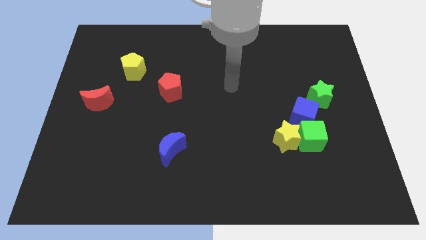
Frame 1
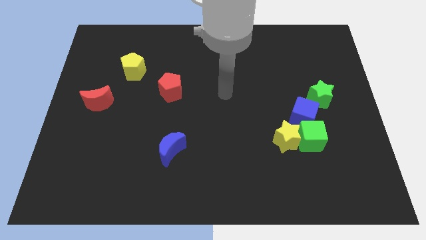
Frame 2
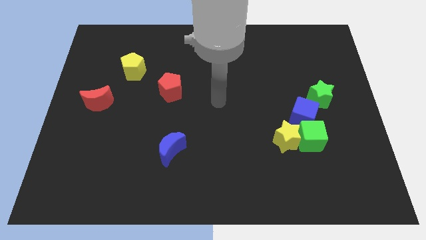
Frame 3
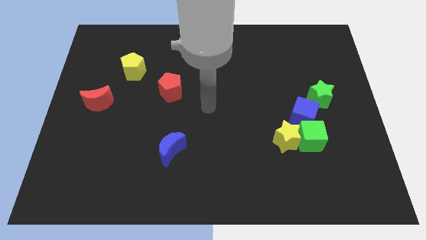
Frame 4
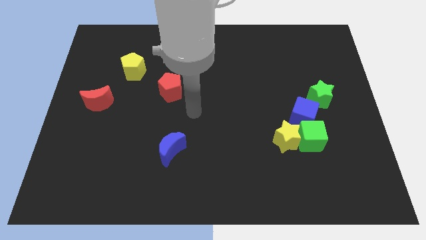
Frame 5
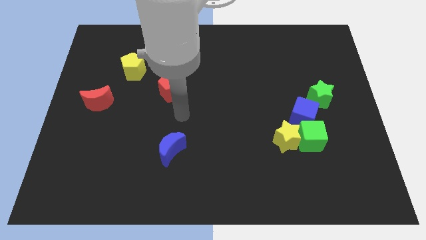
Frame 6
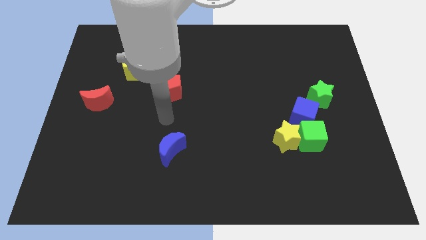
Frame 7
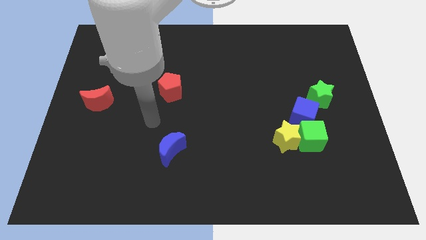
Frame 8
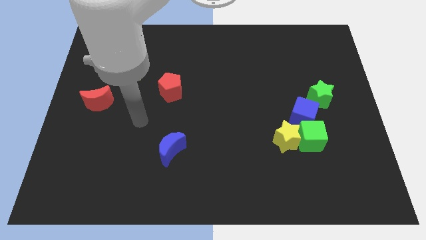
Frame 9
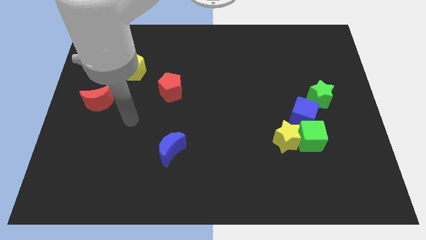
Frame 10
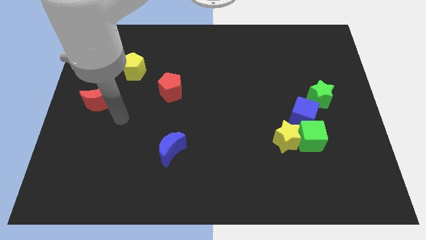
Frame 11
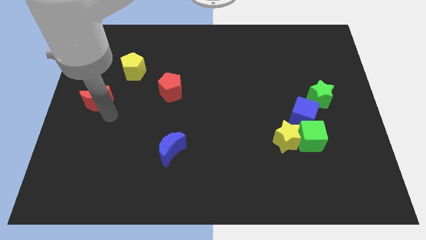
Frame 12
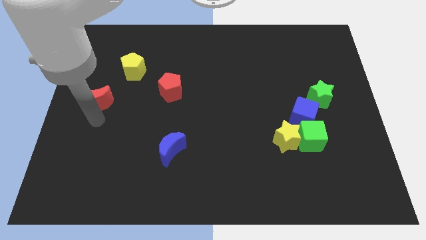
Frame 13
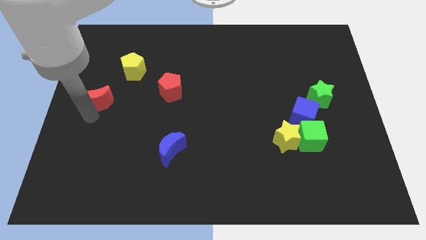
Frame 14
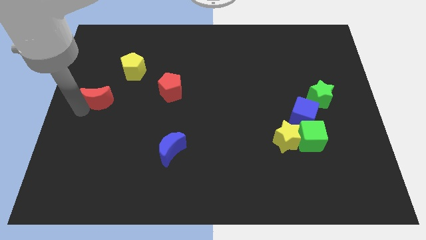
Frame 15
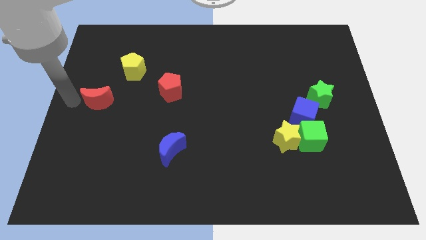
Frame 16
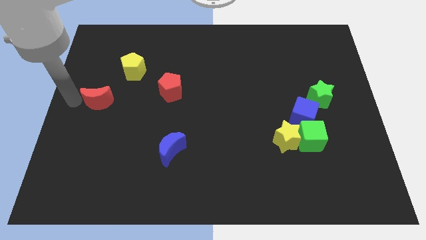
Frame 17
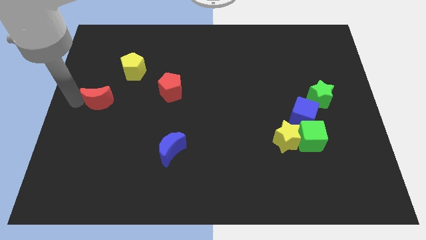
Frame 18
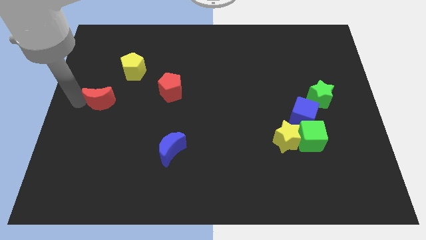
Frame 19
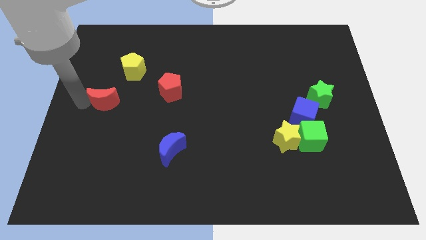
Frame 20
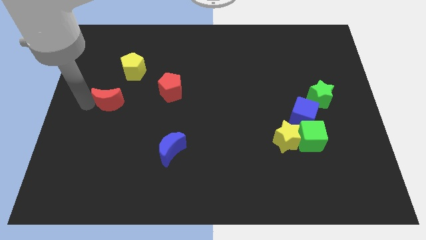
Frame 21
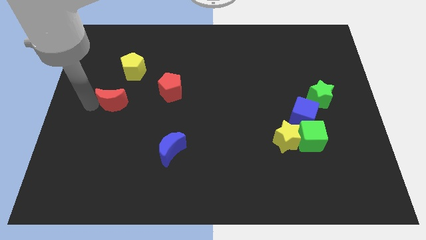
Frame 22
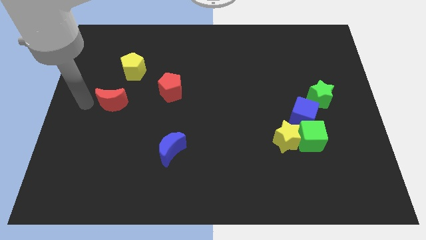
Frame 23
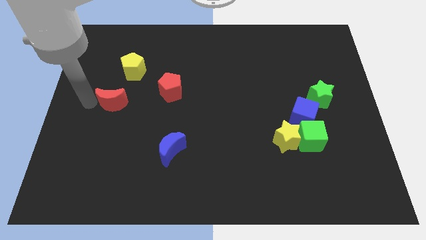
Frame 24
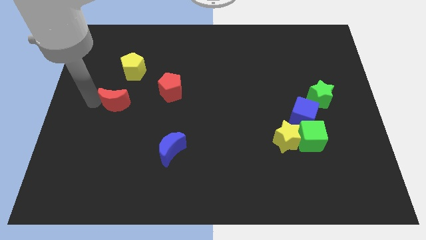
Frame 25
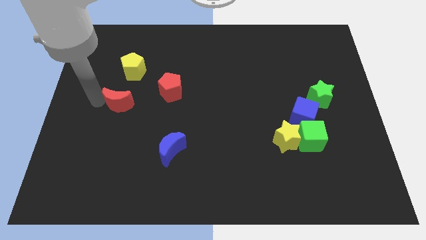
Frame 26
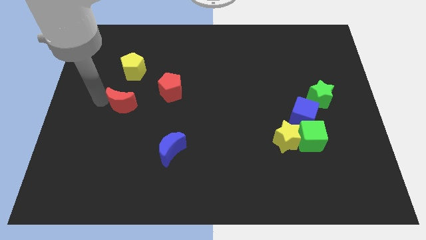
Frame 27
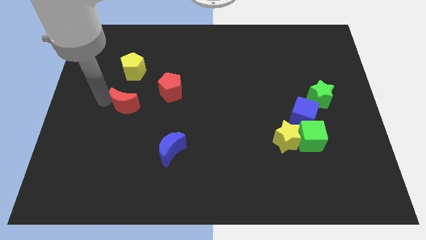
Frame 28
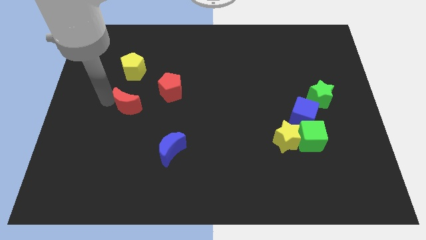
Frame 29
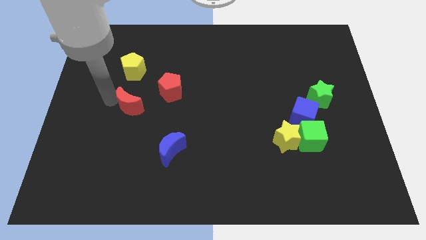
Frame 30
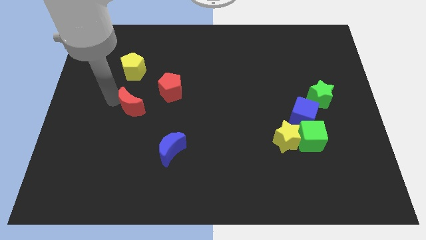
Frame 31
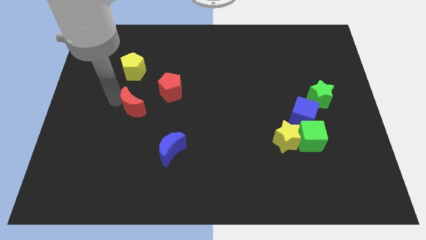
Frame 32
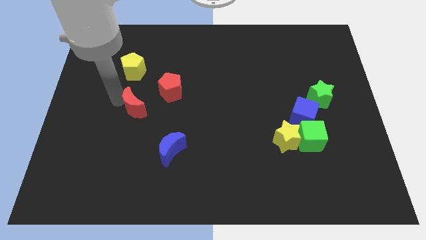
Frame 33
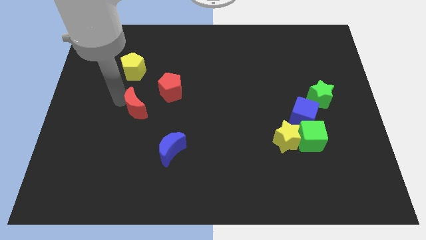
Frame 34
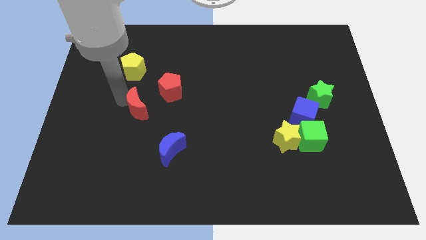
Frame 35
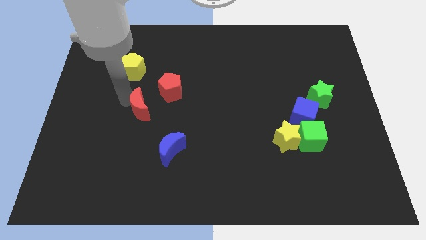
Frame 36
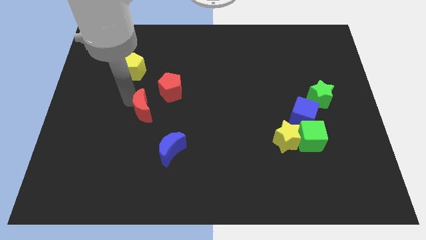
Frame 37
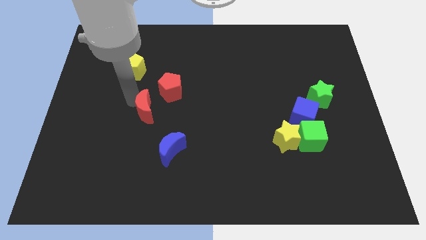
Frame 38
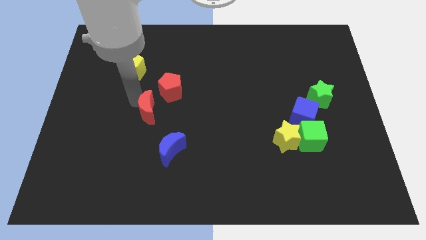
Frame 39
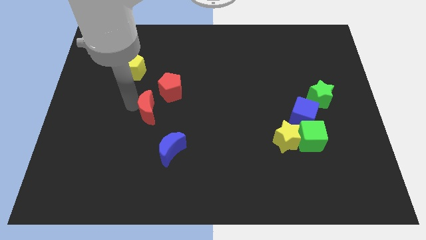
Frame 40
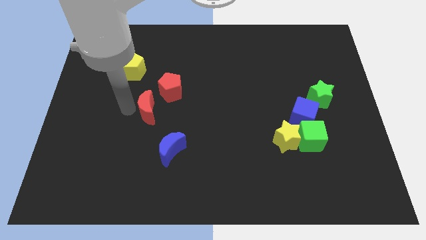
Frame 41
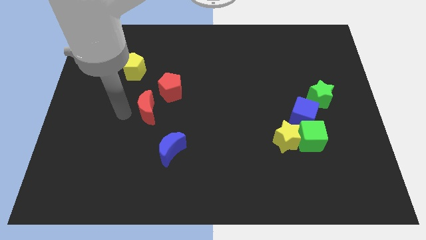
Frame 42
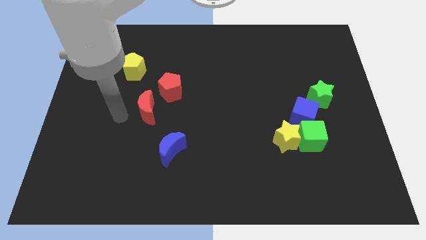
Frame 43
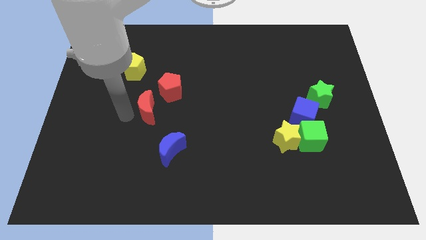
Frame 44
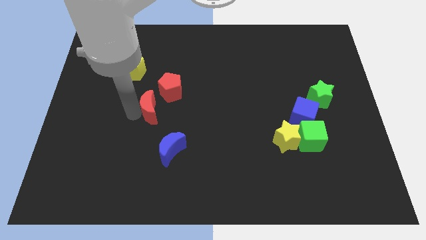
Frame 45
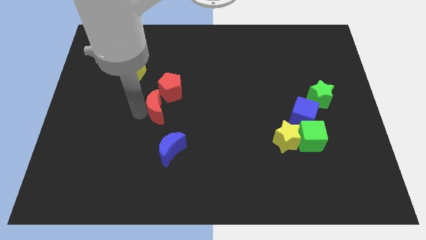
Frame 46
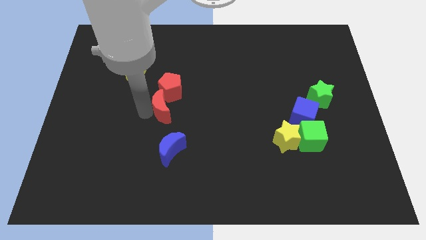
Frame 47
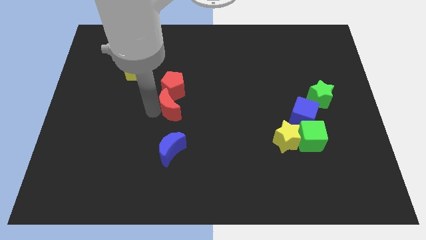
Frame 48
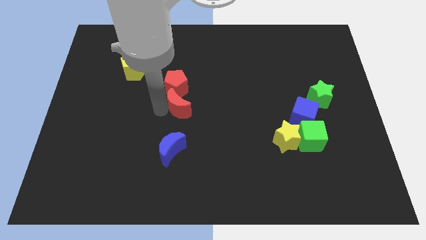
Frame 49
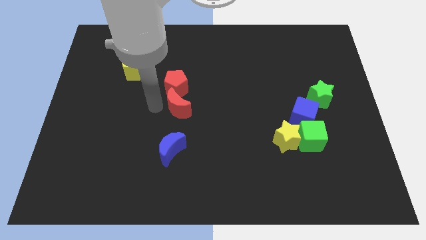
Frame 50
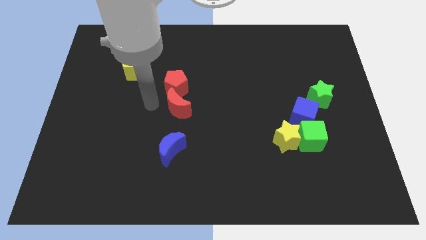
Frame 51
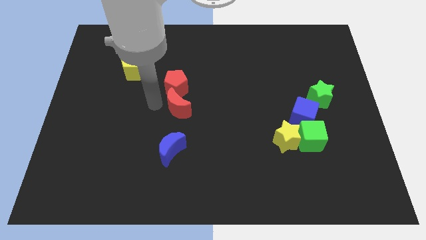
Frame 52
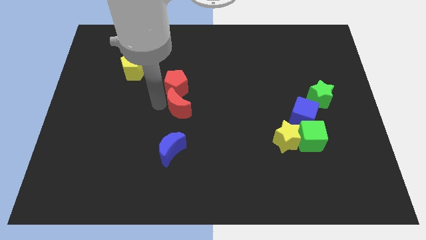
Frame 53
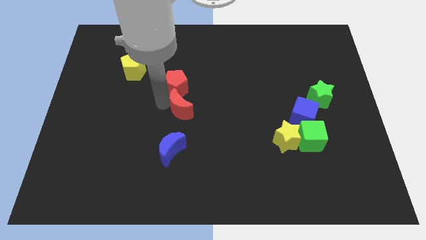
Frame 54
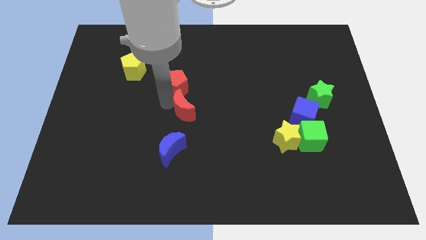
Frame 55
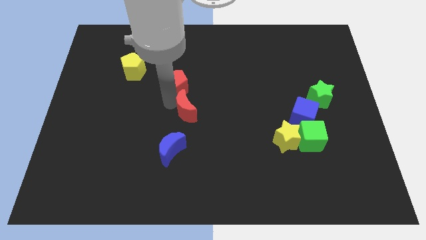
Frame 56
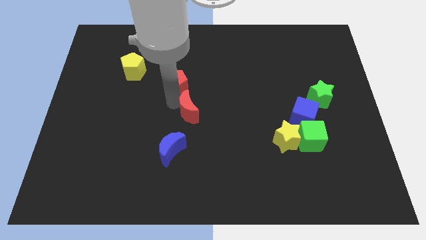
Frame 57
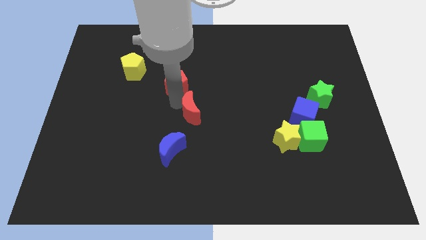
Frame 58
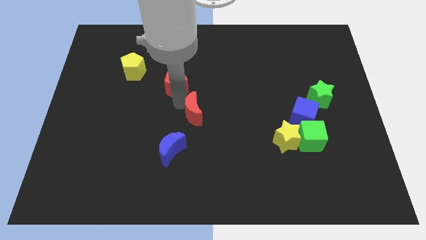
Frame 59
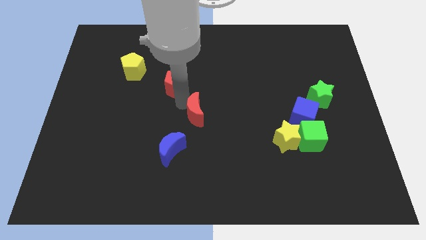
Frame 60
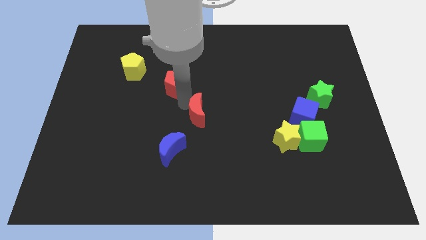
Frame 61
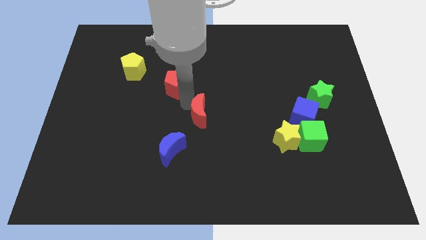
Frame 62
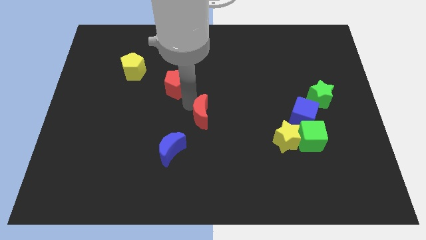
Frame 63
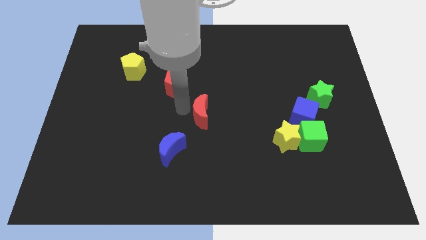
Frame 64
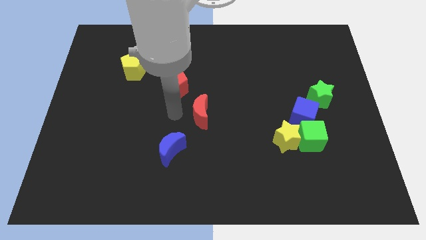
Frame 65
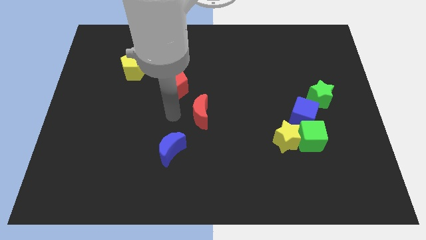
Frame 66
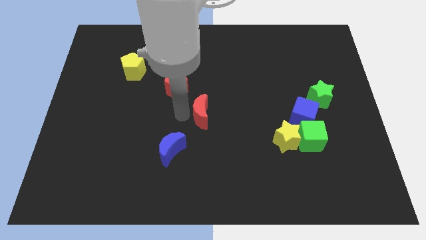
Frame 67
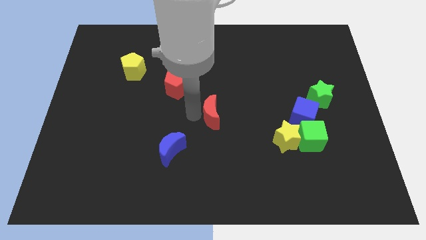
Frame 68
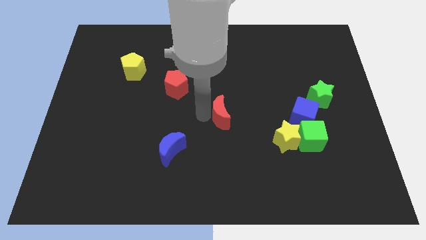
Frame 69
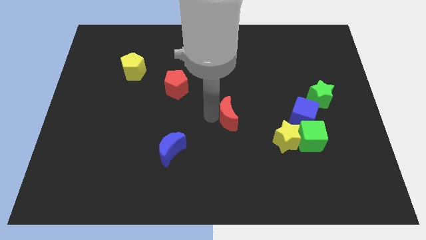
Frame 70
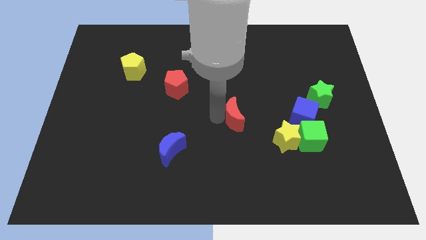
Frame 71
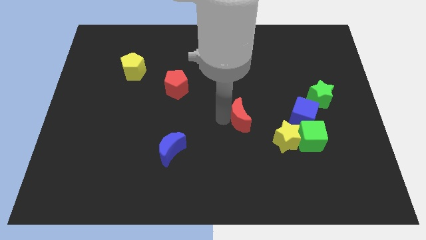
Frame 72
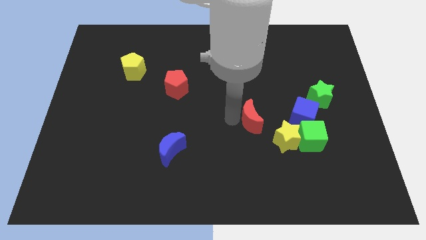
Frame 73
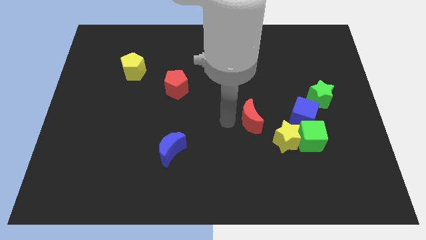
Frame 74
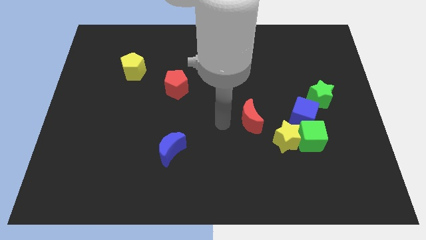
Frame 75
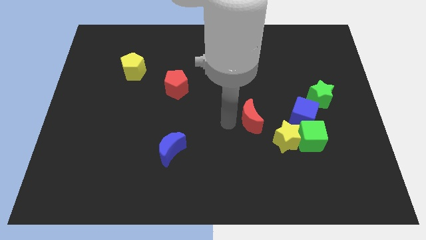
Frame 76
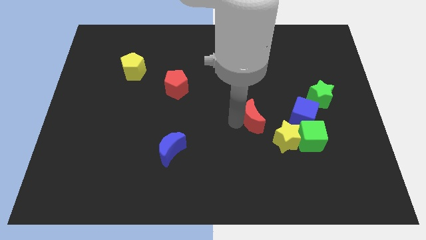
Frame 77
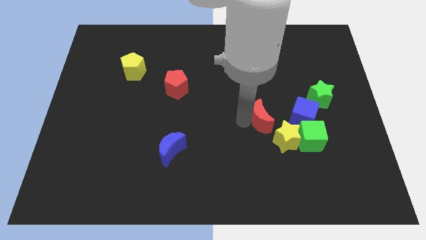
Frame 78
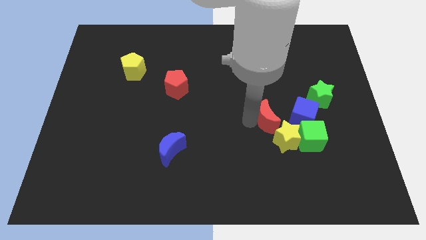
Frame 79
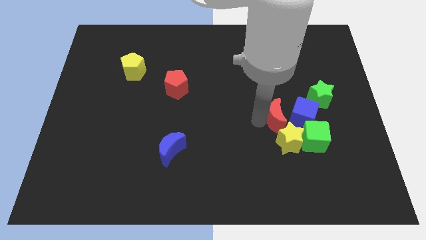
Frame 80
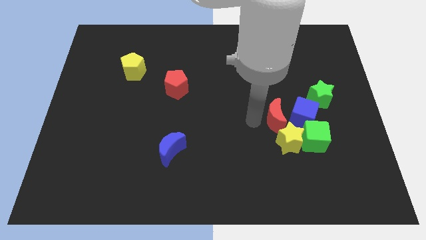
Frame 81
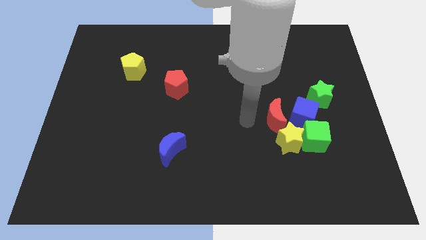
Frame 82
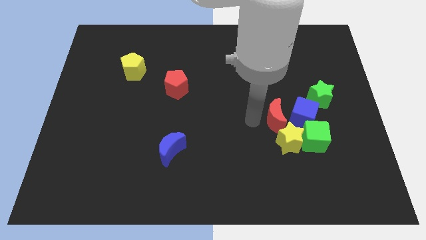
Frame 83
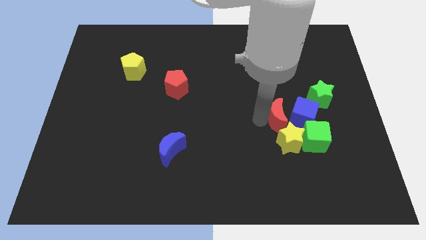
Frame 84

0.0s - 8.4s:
put the red moon to the blue cube
